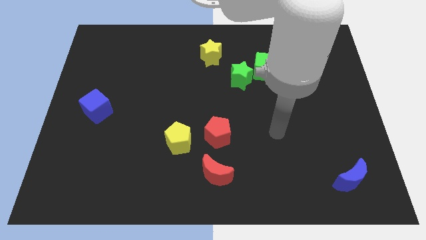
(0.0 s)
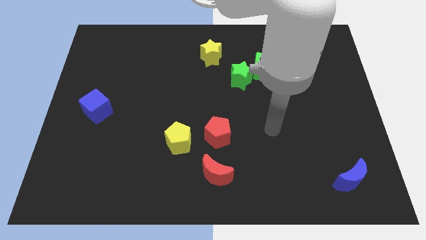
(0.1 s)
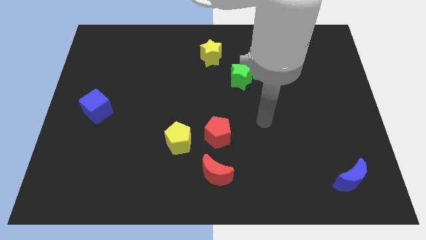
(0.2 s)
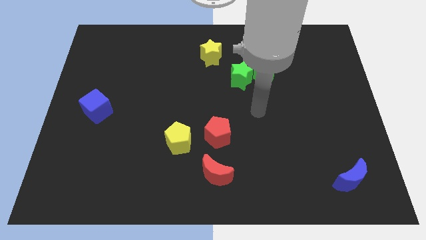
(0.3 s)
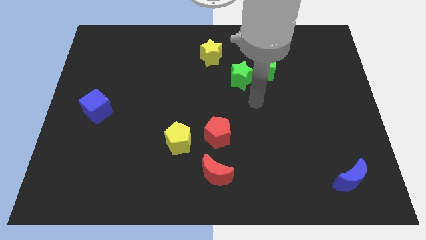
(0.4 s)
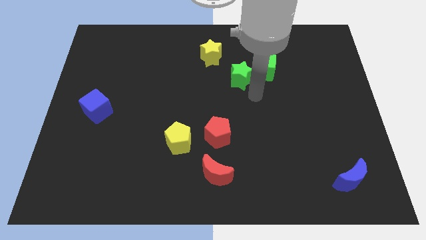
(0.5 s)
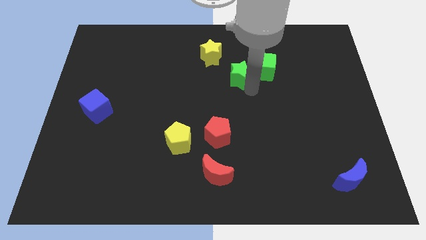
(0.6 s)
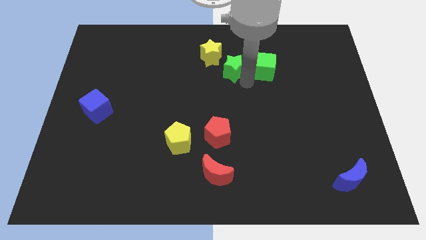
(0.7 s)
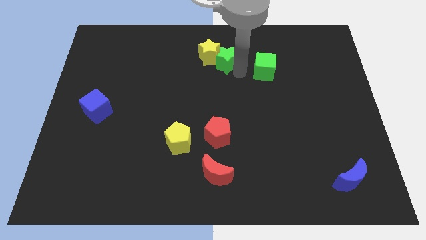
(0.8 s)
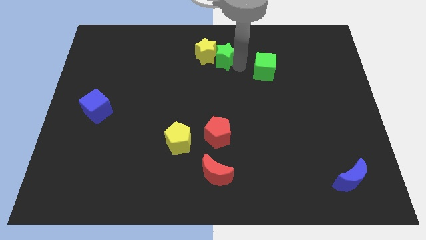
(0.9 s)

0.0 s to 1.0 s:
separate the green cube from the green star

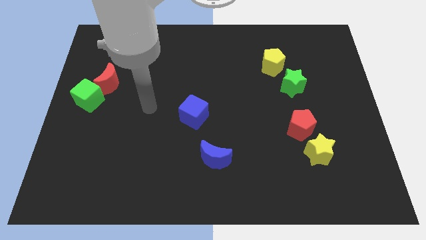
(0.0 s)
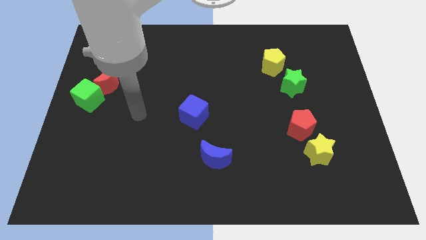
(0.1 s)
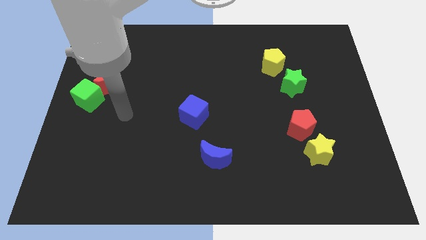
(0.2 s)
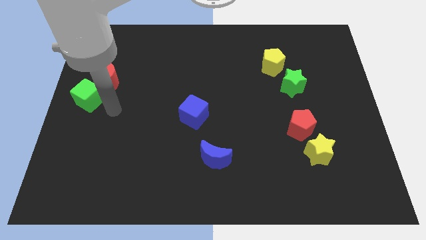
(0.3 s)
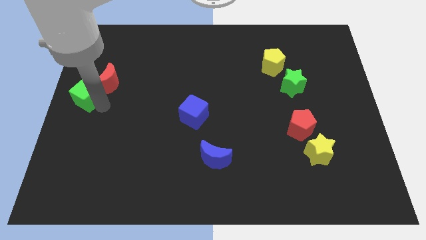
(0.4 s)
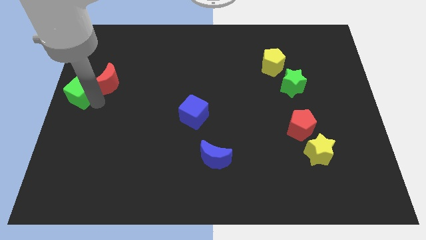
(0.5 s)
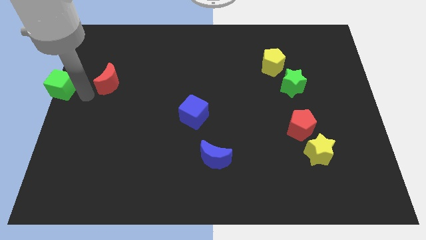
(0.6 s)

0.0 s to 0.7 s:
separate the red moon from the green cube

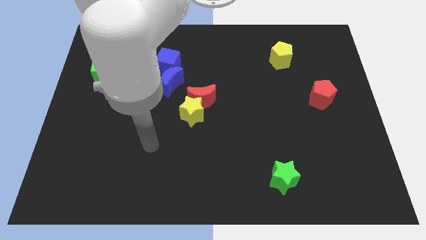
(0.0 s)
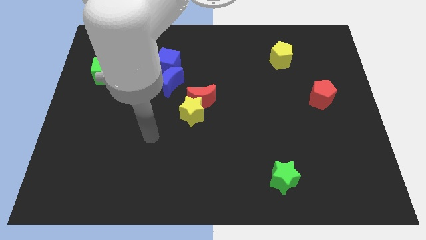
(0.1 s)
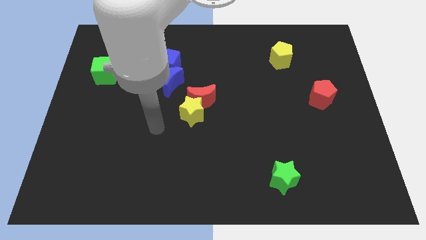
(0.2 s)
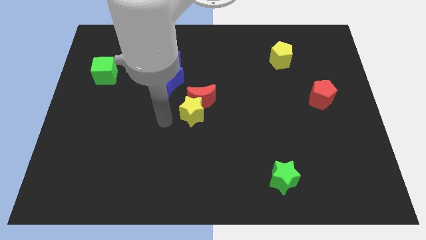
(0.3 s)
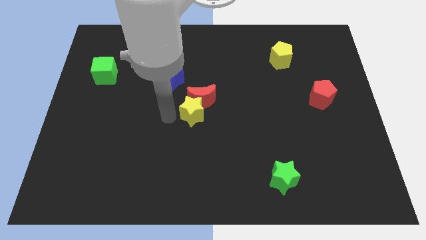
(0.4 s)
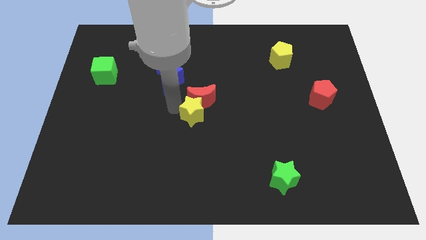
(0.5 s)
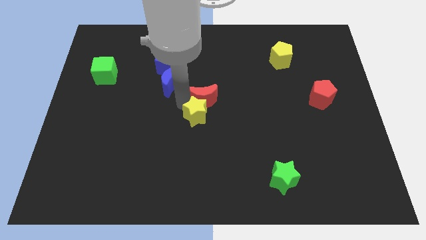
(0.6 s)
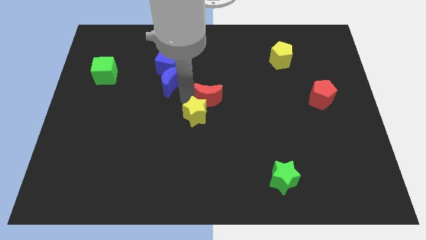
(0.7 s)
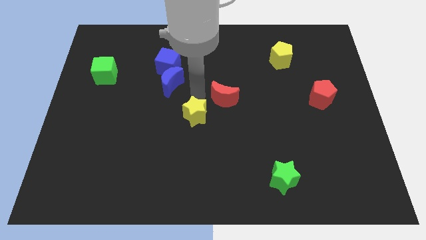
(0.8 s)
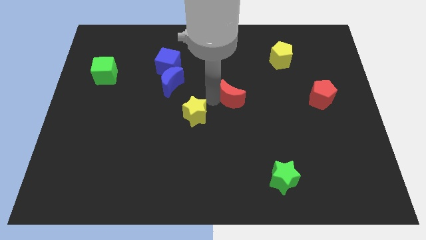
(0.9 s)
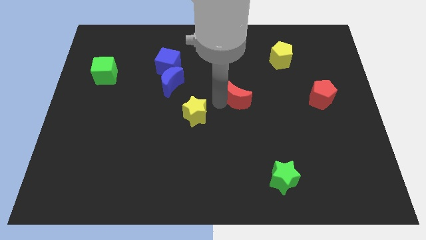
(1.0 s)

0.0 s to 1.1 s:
pull the yellow star apart from the red moon

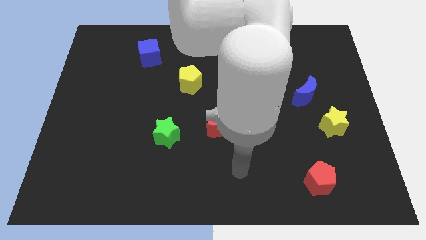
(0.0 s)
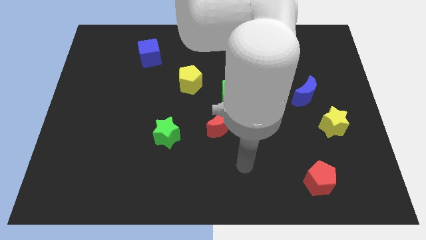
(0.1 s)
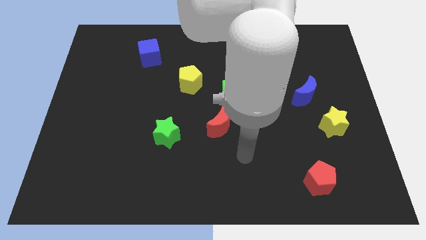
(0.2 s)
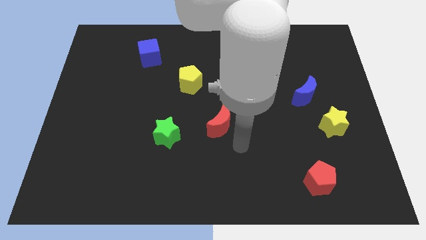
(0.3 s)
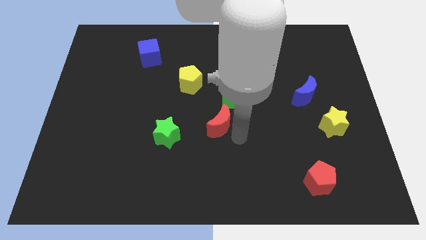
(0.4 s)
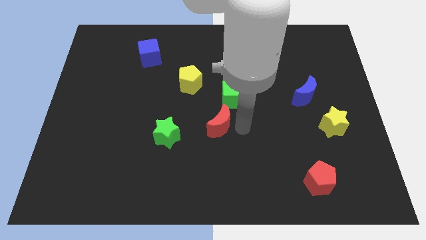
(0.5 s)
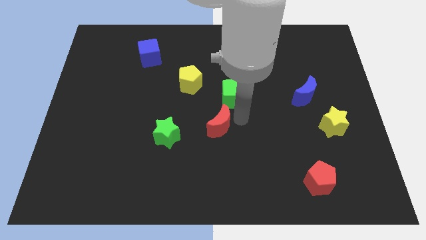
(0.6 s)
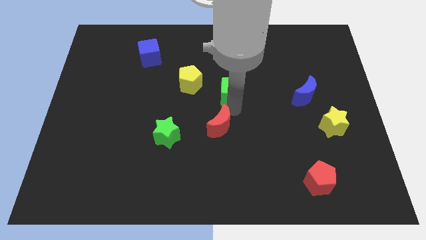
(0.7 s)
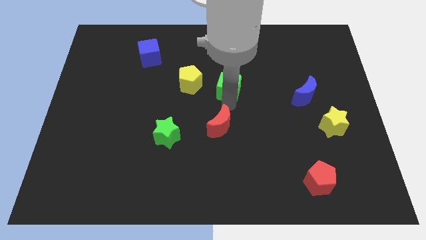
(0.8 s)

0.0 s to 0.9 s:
pull the red moon apart from the green cube

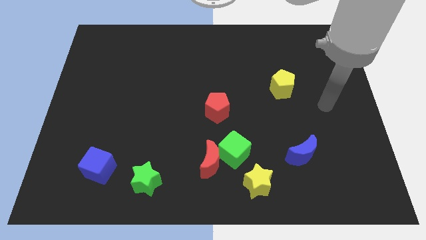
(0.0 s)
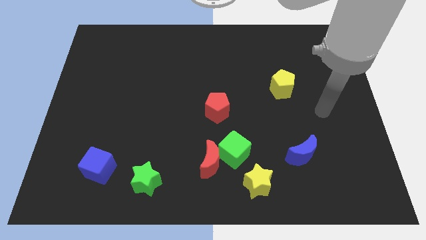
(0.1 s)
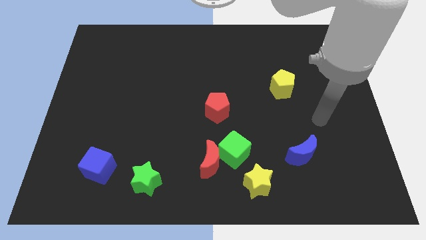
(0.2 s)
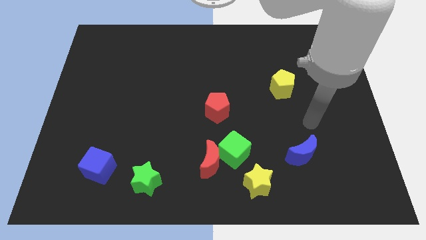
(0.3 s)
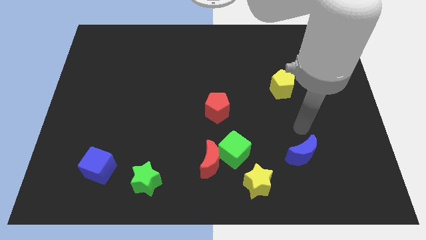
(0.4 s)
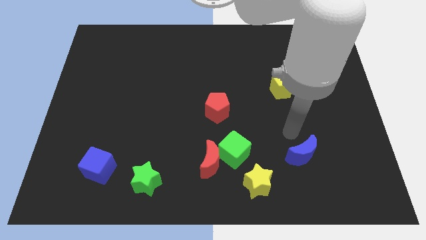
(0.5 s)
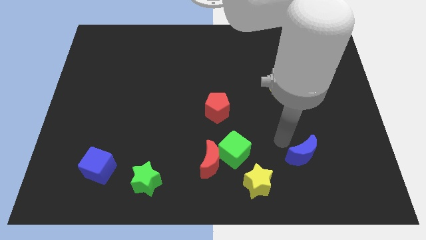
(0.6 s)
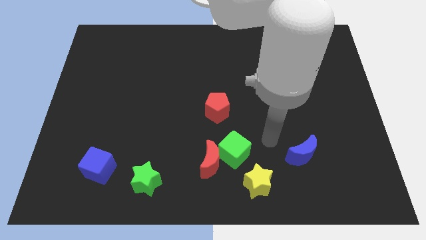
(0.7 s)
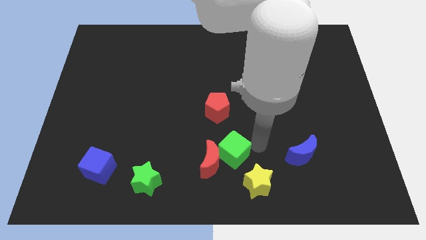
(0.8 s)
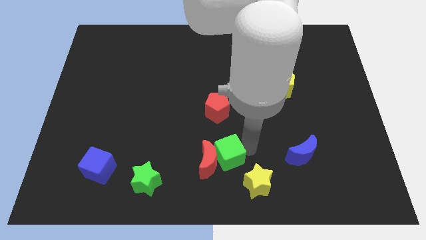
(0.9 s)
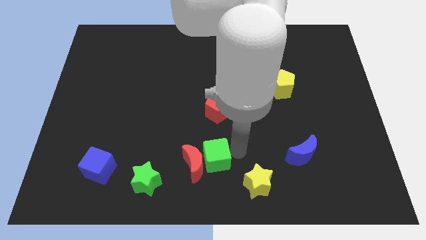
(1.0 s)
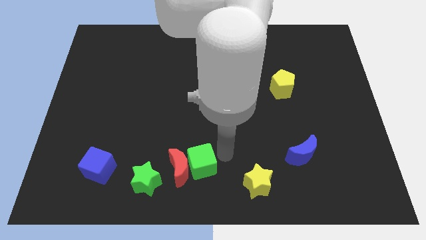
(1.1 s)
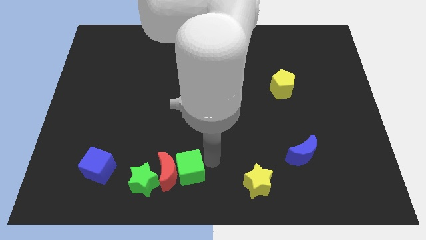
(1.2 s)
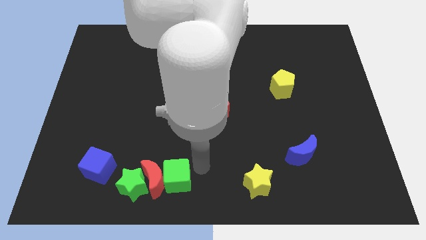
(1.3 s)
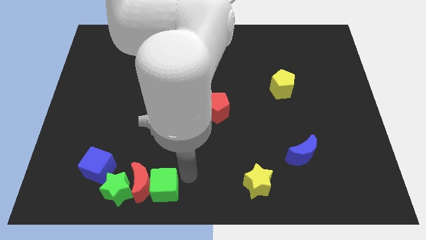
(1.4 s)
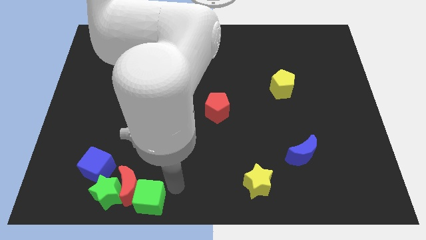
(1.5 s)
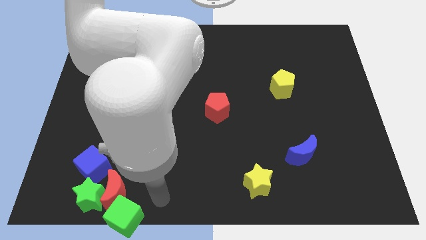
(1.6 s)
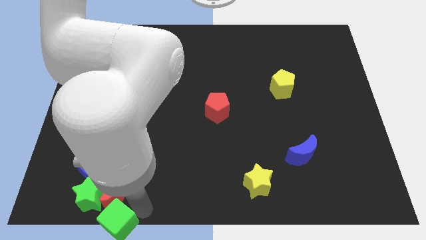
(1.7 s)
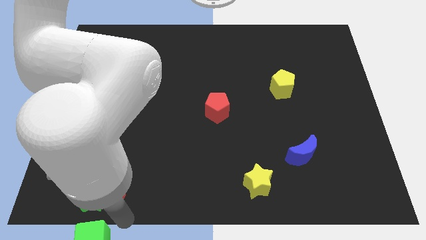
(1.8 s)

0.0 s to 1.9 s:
move the red moon away from the green cube

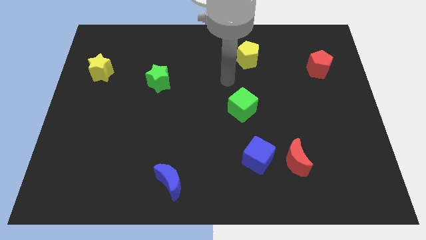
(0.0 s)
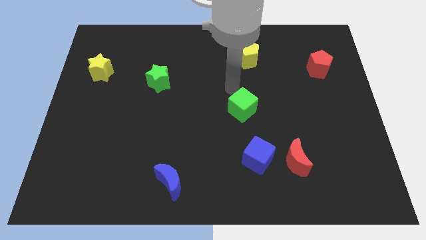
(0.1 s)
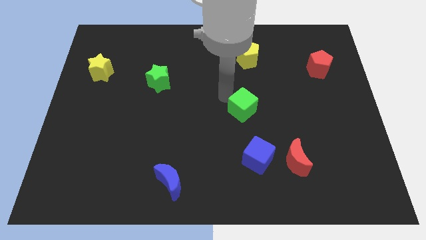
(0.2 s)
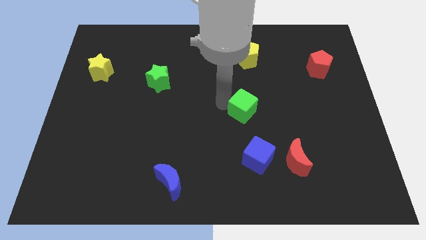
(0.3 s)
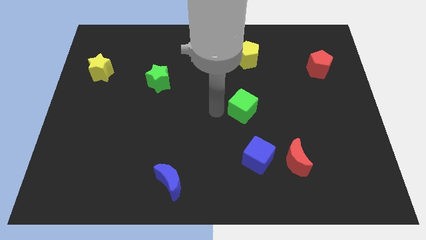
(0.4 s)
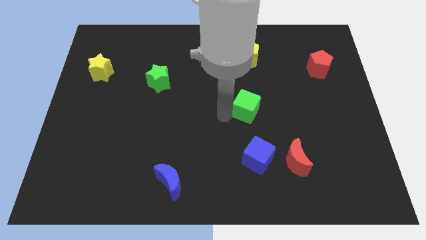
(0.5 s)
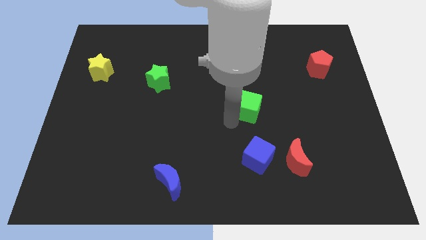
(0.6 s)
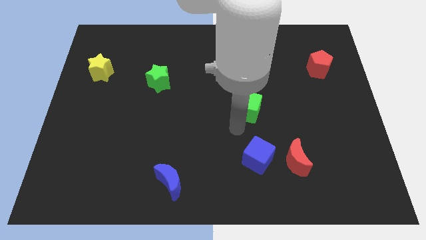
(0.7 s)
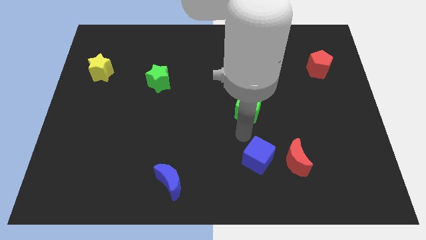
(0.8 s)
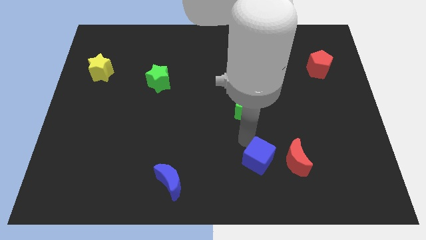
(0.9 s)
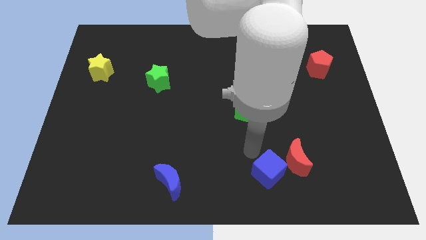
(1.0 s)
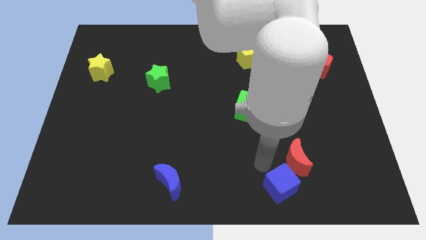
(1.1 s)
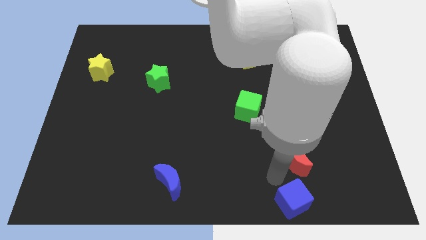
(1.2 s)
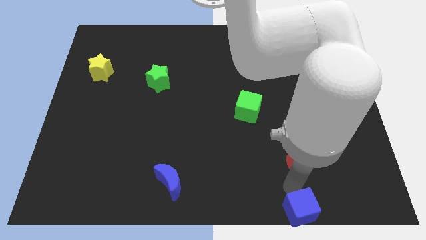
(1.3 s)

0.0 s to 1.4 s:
pull the red moon apart from the blue cube

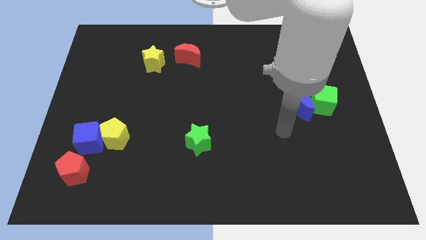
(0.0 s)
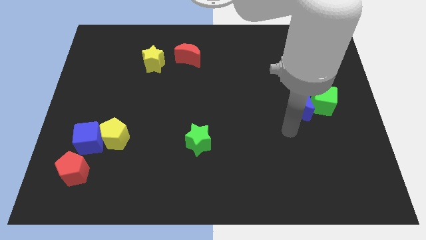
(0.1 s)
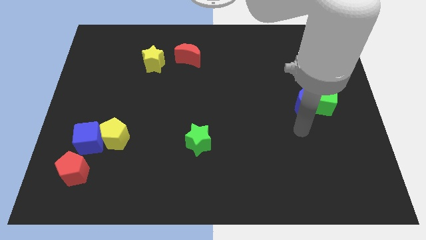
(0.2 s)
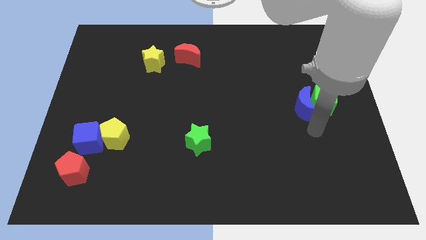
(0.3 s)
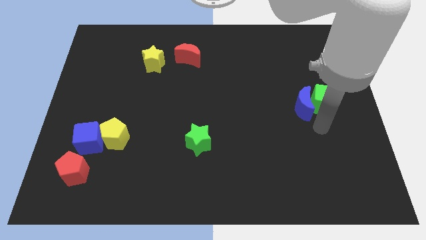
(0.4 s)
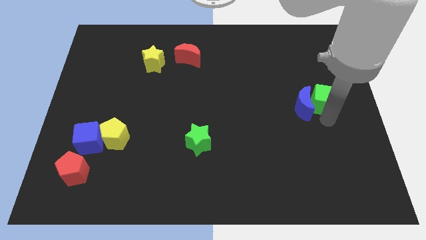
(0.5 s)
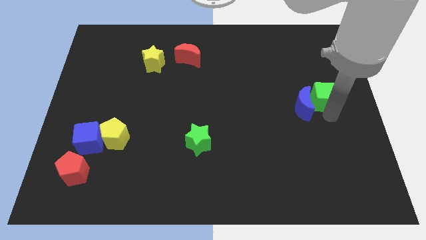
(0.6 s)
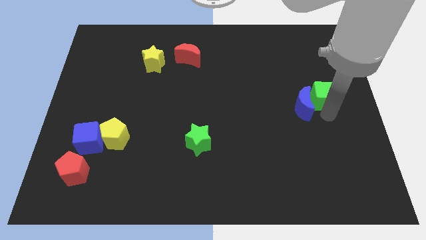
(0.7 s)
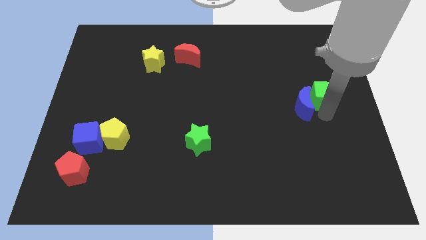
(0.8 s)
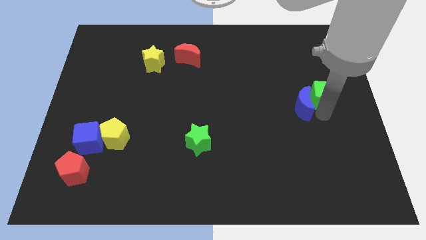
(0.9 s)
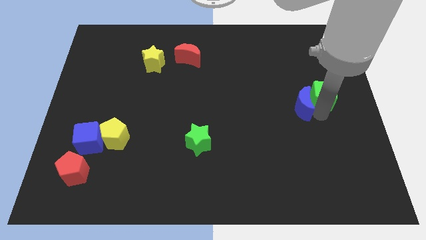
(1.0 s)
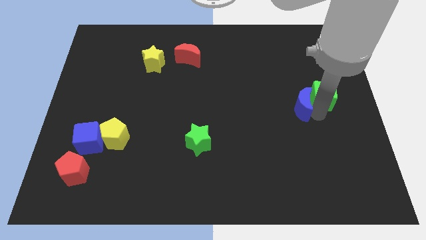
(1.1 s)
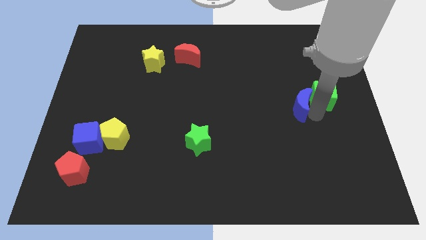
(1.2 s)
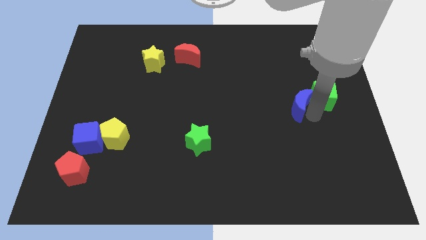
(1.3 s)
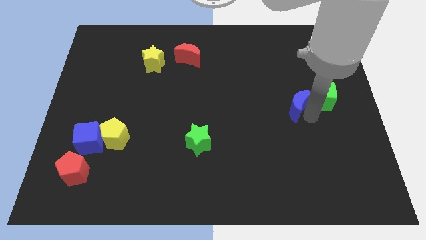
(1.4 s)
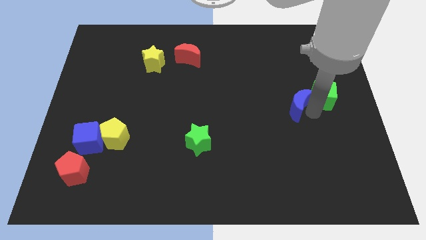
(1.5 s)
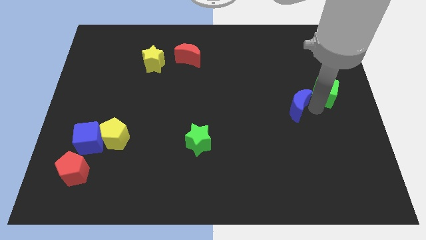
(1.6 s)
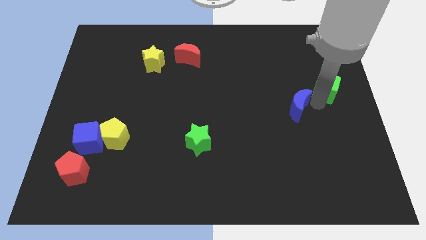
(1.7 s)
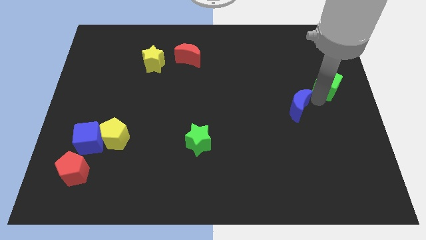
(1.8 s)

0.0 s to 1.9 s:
move the blue moon away from the green cube

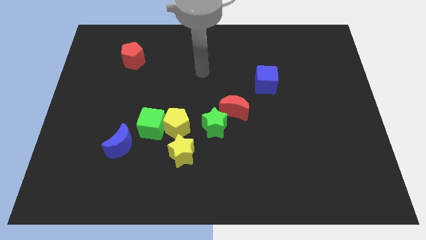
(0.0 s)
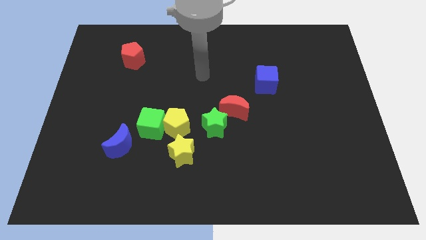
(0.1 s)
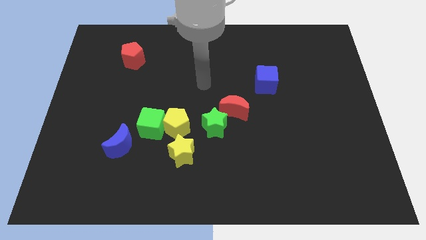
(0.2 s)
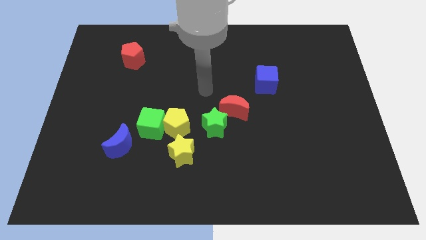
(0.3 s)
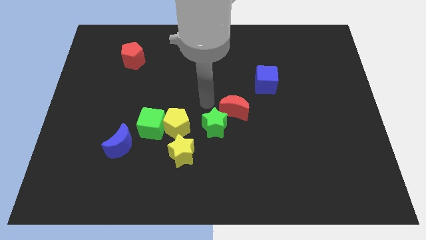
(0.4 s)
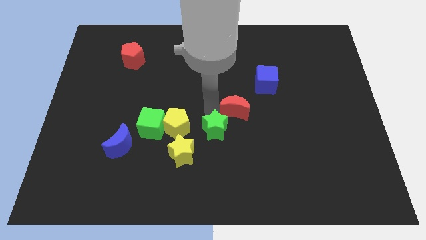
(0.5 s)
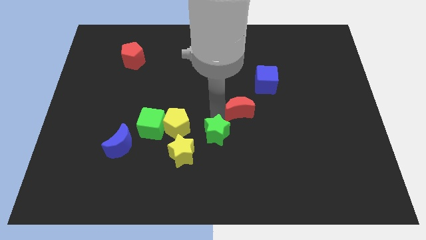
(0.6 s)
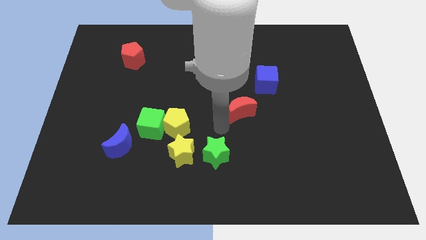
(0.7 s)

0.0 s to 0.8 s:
pull the red moon apart from the green star
